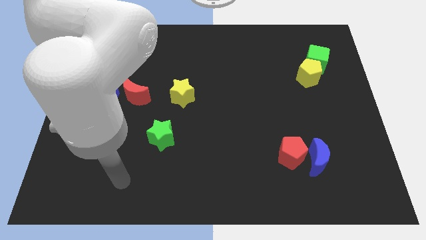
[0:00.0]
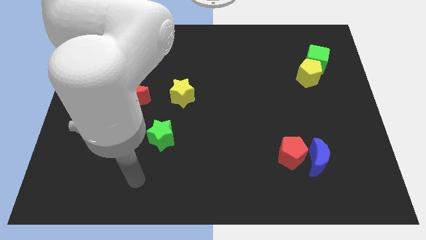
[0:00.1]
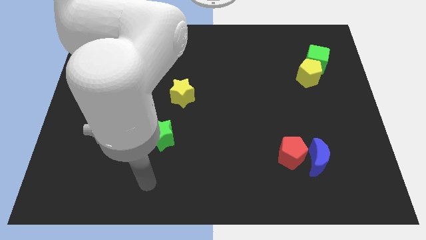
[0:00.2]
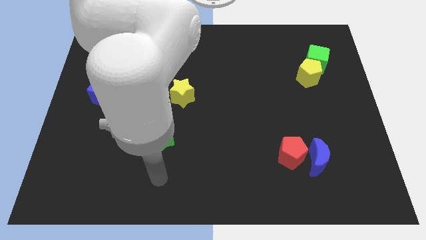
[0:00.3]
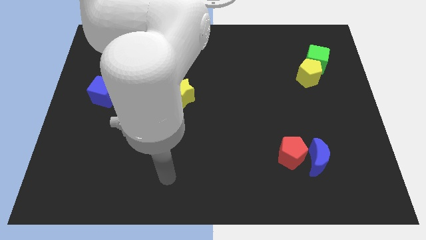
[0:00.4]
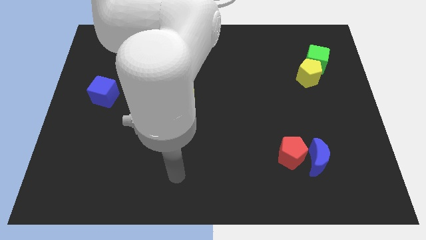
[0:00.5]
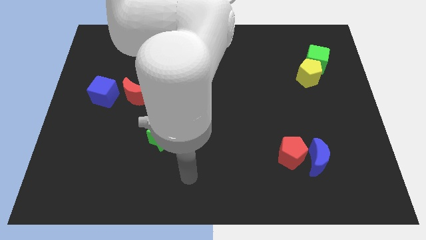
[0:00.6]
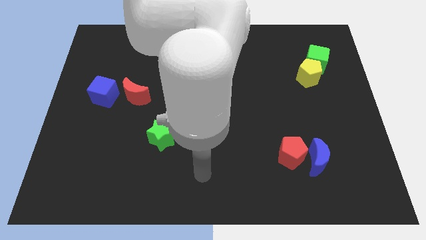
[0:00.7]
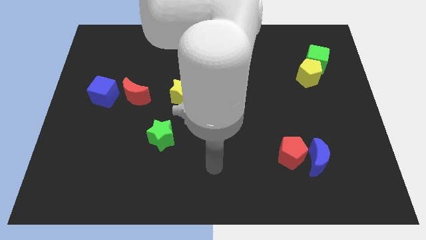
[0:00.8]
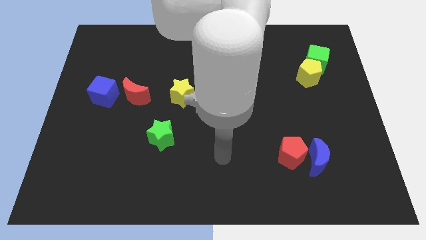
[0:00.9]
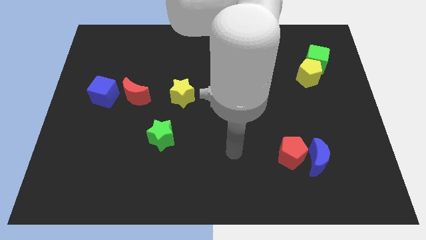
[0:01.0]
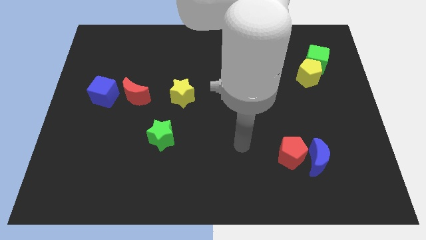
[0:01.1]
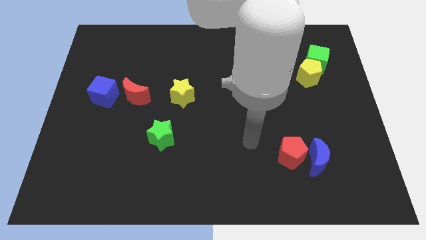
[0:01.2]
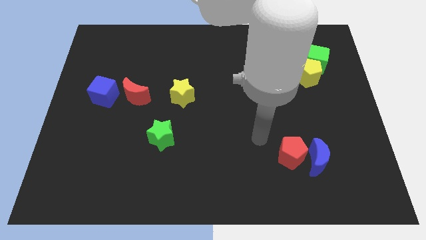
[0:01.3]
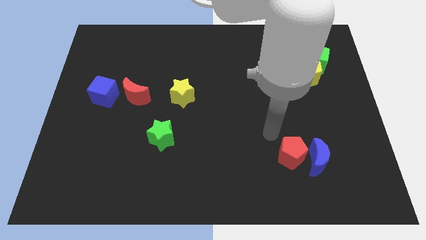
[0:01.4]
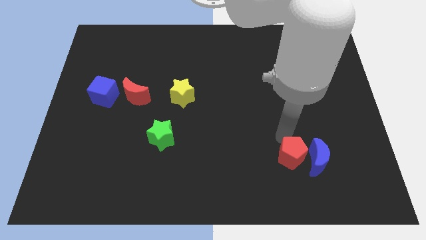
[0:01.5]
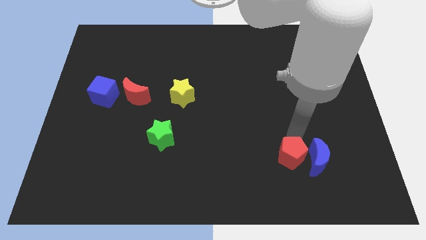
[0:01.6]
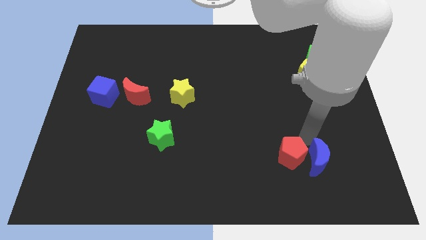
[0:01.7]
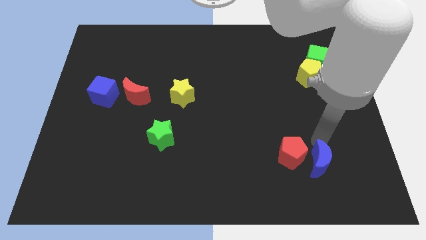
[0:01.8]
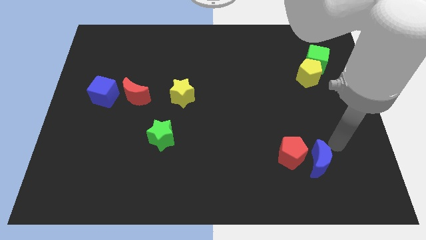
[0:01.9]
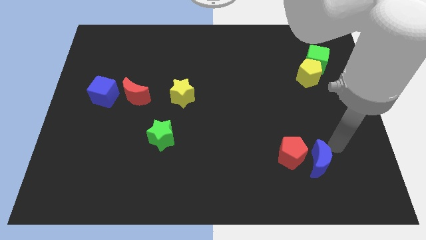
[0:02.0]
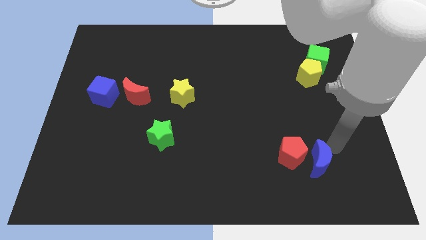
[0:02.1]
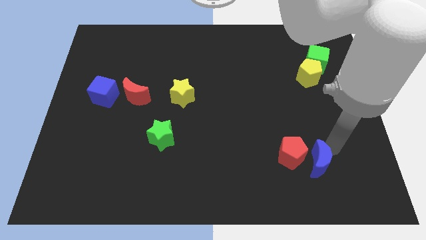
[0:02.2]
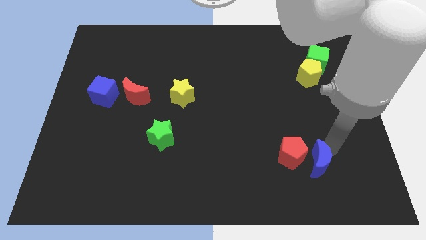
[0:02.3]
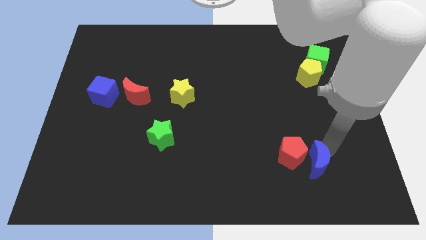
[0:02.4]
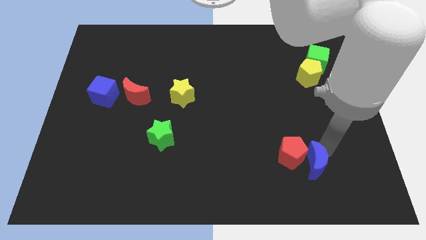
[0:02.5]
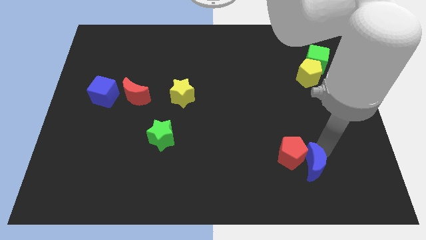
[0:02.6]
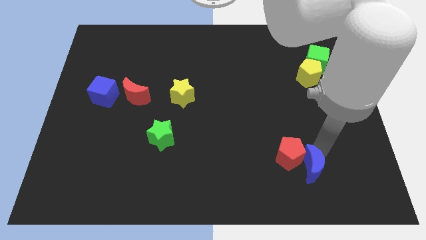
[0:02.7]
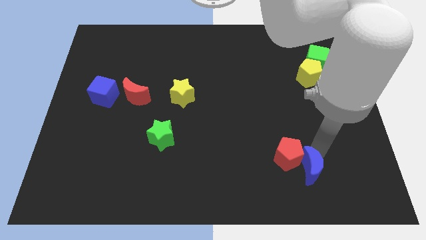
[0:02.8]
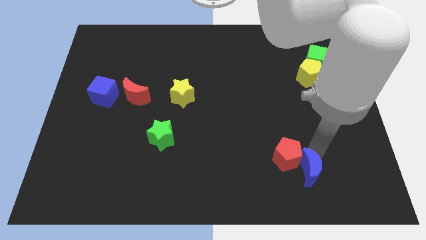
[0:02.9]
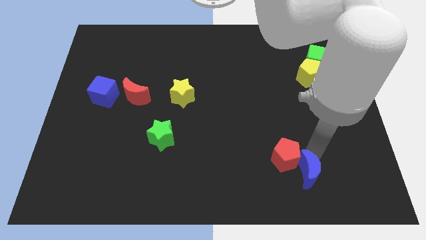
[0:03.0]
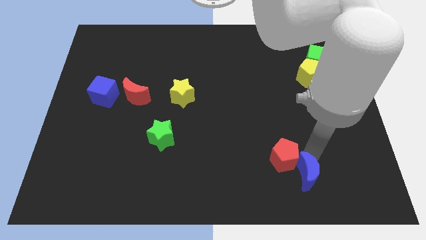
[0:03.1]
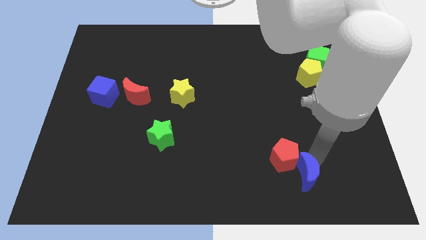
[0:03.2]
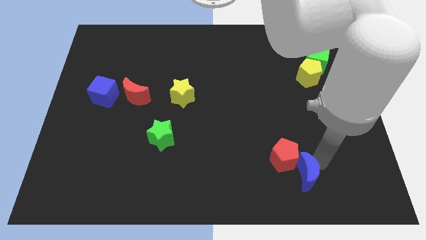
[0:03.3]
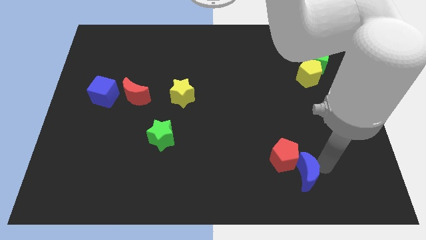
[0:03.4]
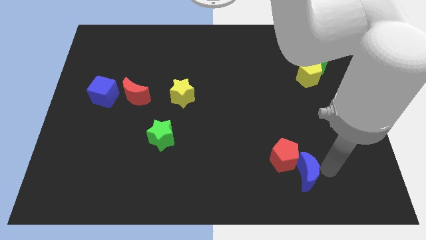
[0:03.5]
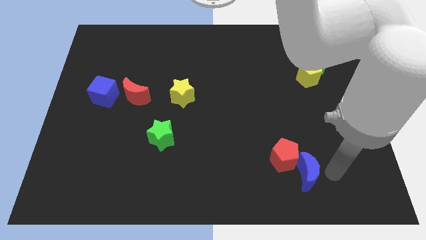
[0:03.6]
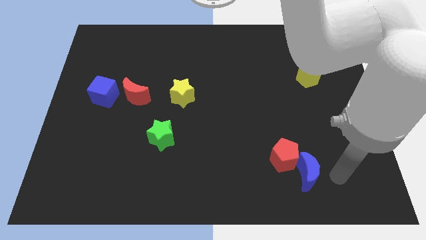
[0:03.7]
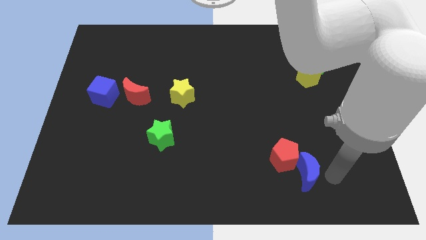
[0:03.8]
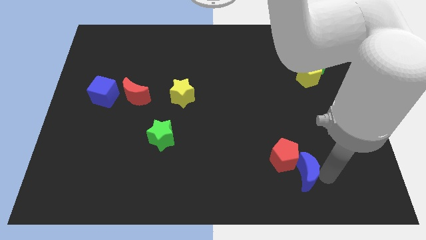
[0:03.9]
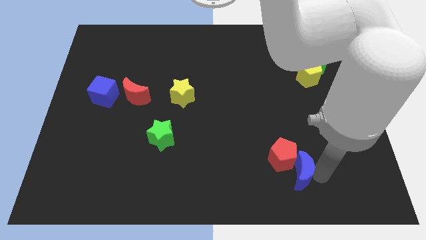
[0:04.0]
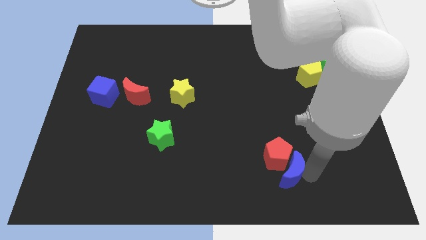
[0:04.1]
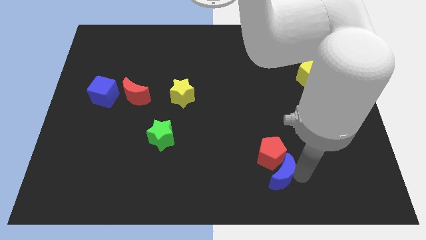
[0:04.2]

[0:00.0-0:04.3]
slide the blue moon a little bit to the left

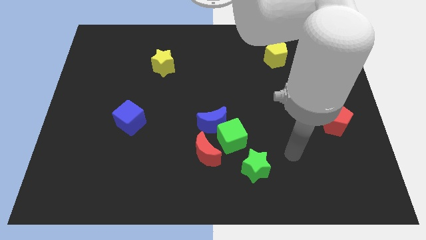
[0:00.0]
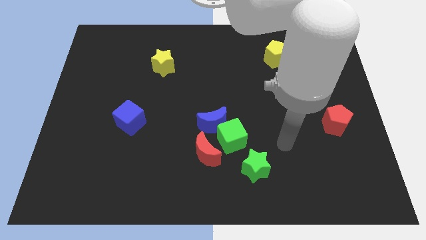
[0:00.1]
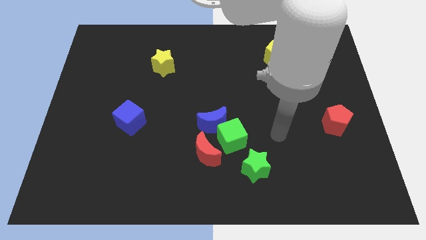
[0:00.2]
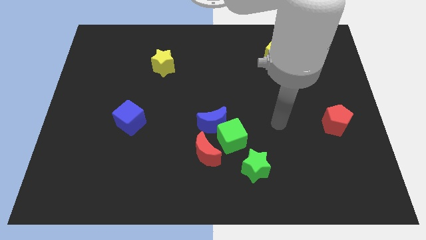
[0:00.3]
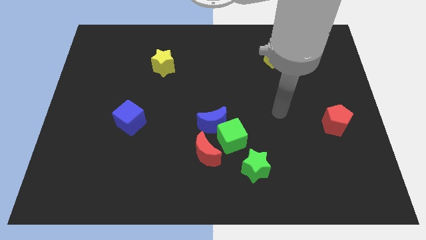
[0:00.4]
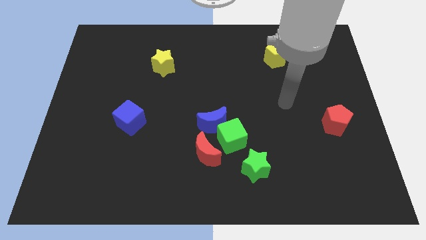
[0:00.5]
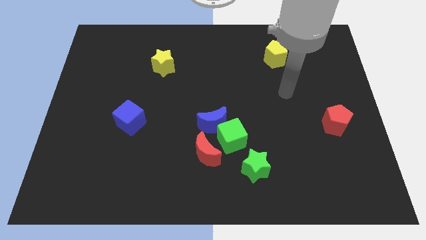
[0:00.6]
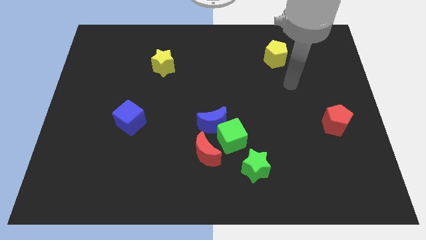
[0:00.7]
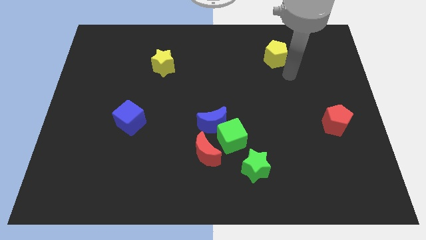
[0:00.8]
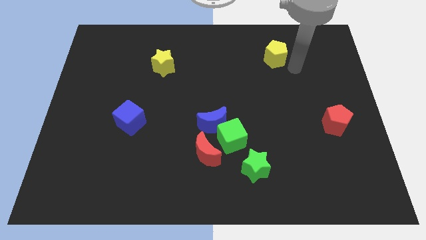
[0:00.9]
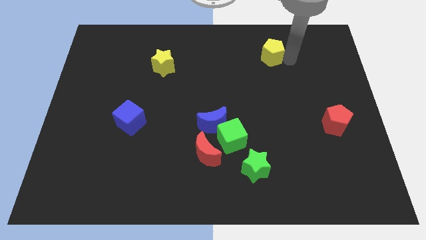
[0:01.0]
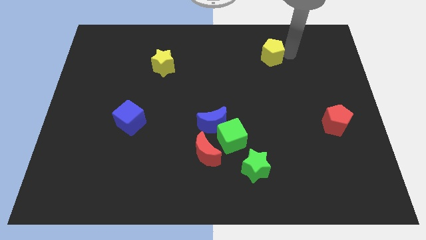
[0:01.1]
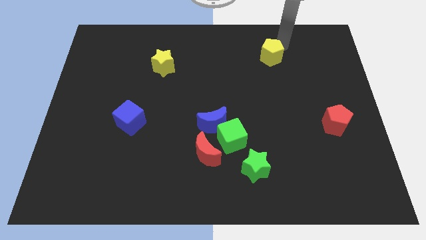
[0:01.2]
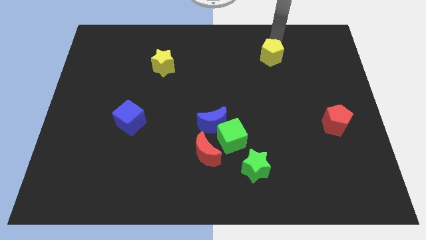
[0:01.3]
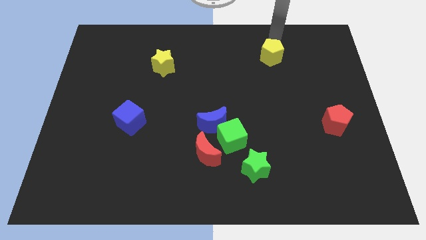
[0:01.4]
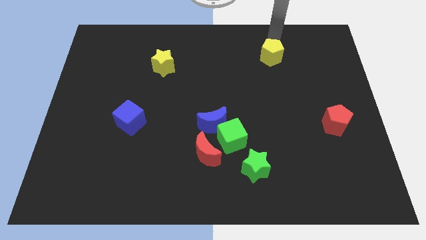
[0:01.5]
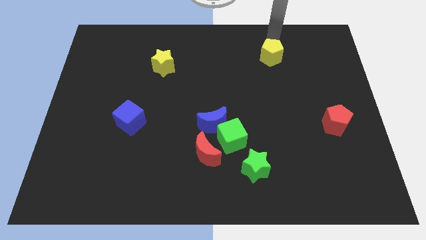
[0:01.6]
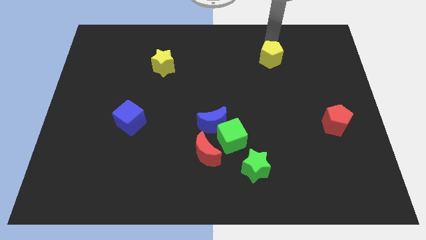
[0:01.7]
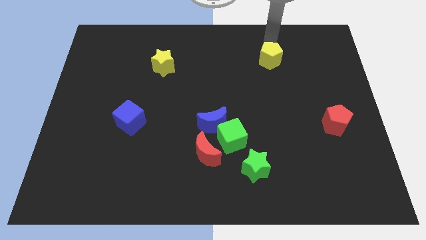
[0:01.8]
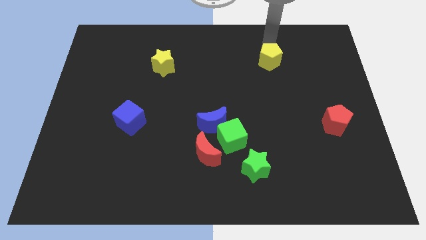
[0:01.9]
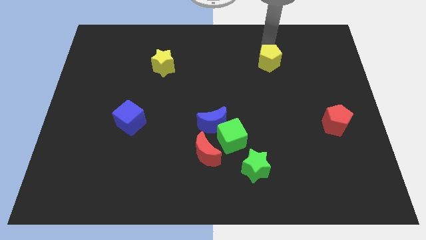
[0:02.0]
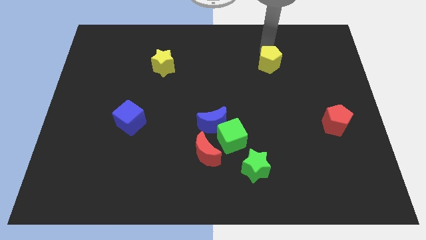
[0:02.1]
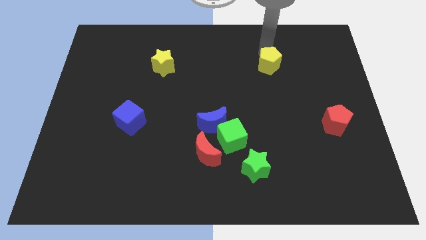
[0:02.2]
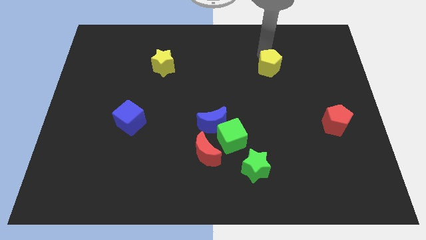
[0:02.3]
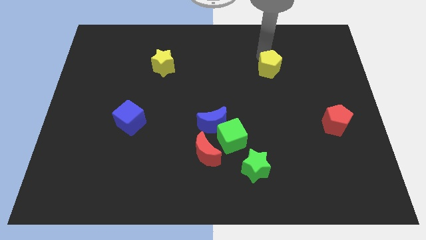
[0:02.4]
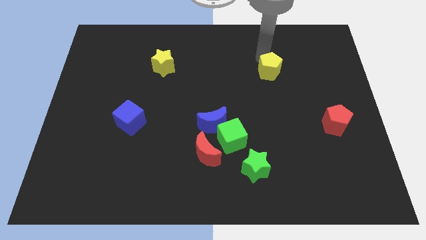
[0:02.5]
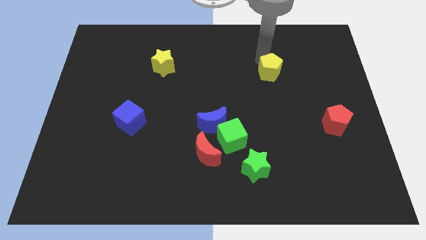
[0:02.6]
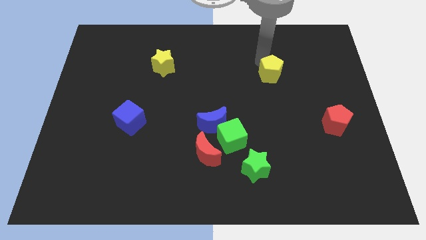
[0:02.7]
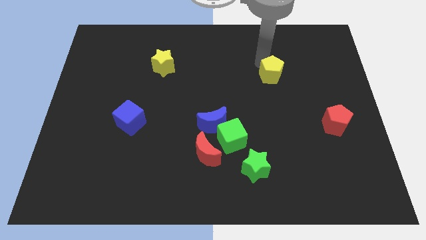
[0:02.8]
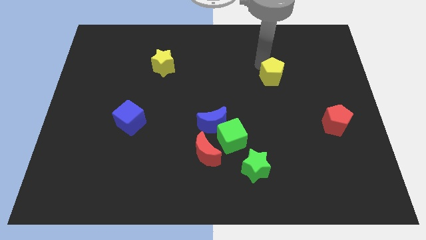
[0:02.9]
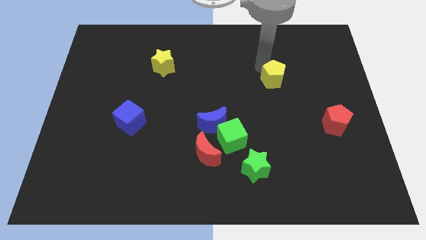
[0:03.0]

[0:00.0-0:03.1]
slightly move the yellow pentagon downwards

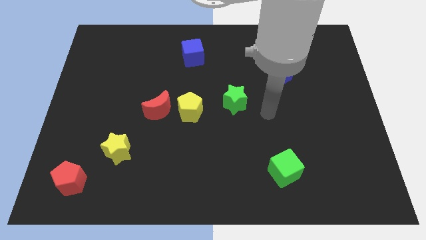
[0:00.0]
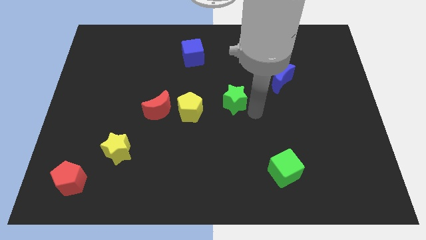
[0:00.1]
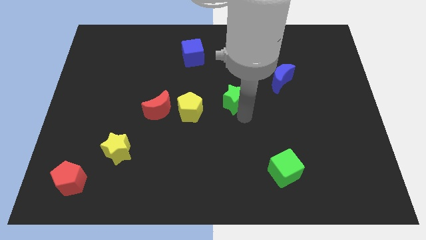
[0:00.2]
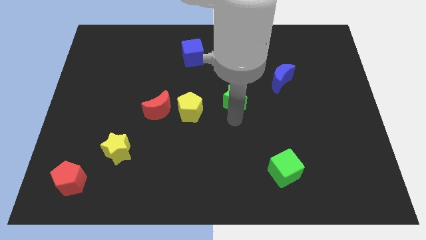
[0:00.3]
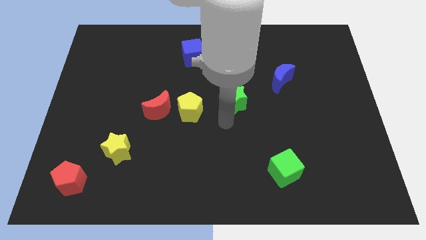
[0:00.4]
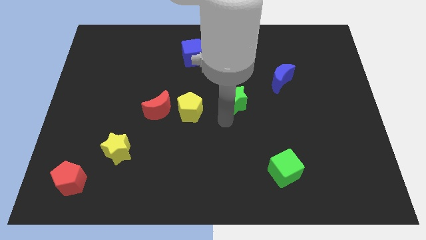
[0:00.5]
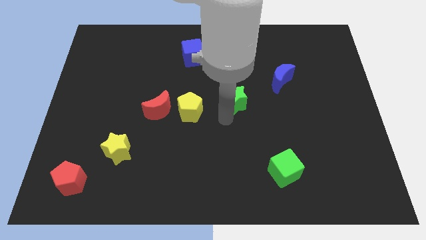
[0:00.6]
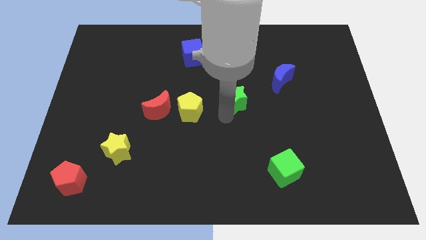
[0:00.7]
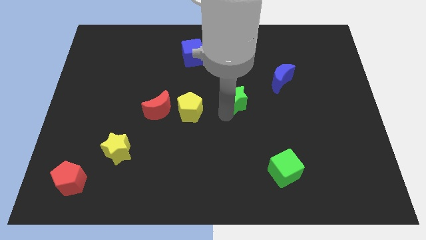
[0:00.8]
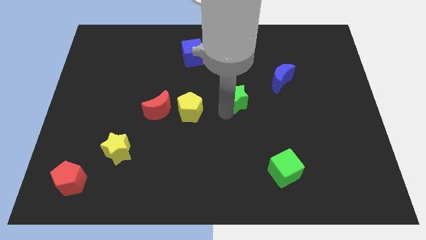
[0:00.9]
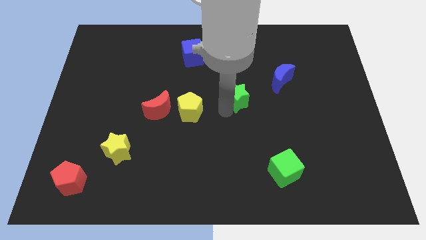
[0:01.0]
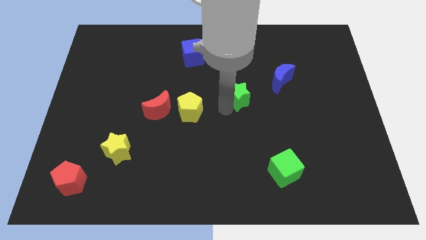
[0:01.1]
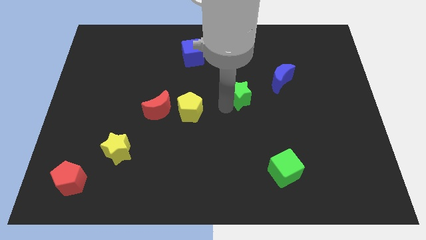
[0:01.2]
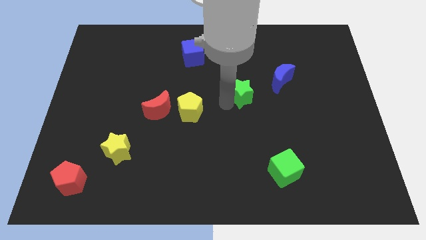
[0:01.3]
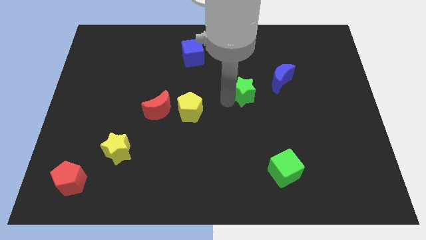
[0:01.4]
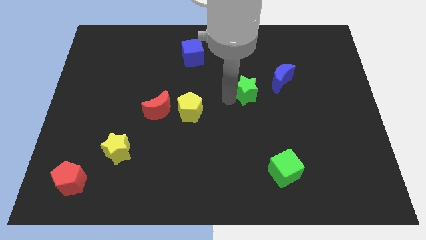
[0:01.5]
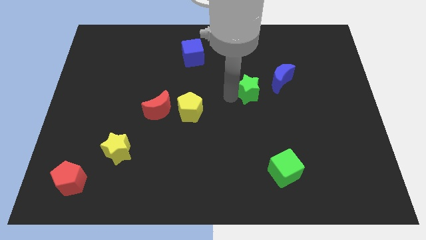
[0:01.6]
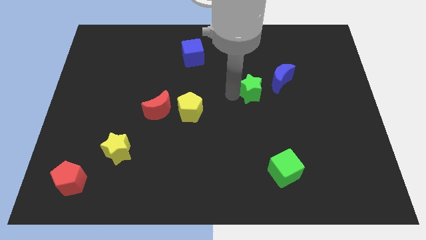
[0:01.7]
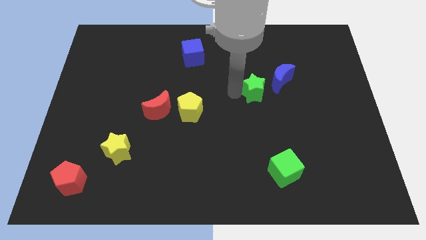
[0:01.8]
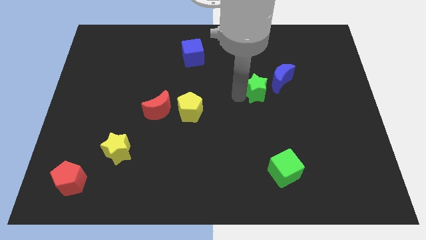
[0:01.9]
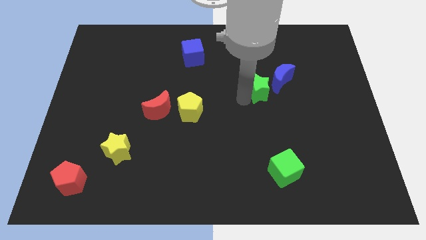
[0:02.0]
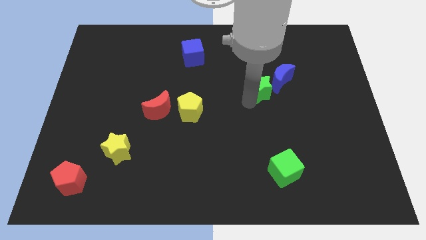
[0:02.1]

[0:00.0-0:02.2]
move the green star diagonally up and right somewhat
